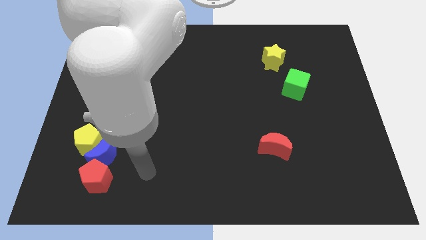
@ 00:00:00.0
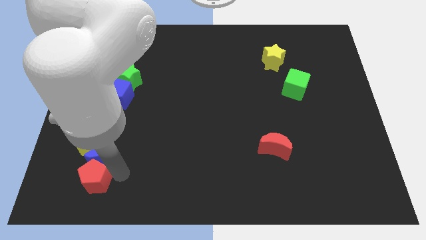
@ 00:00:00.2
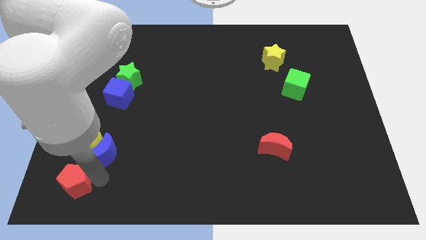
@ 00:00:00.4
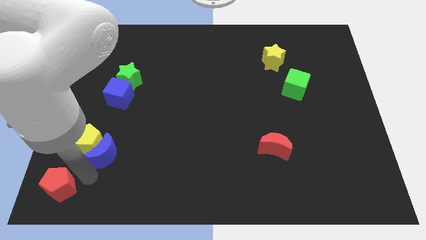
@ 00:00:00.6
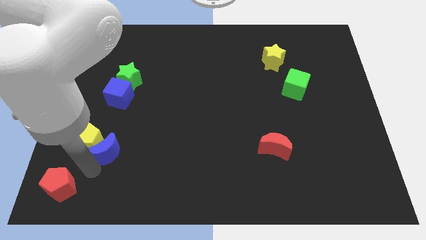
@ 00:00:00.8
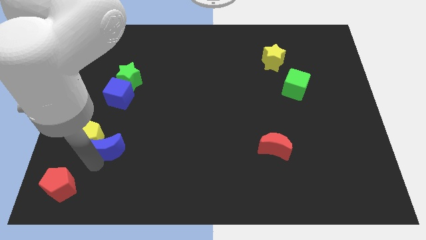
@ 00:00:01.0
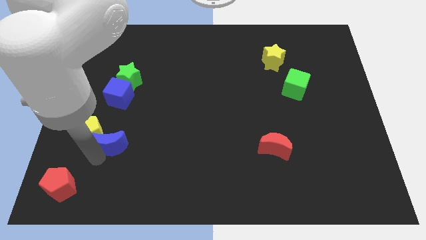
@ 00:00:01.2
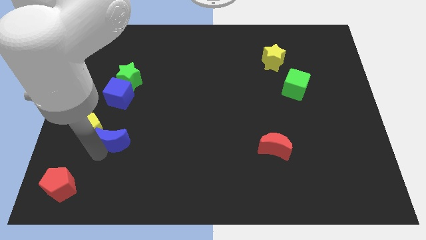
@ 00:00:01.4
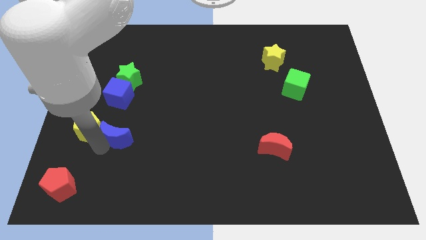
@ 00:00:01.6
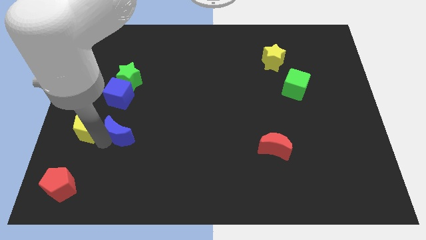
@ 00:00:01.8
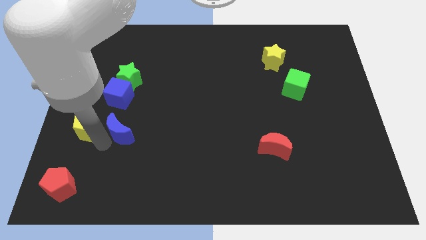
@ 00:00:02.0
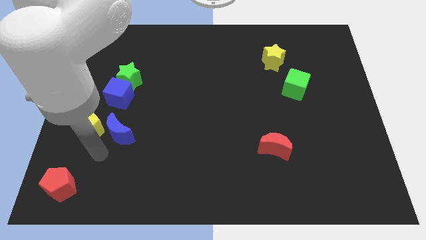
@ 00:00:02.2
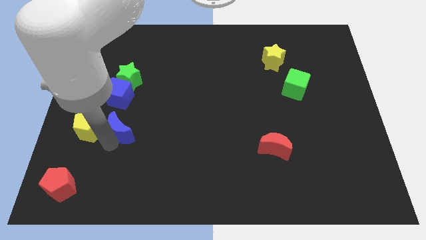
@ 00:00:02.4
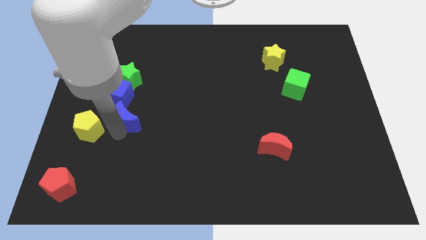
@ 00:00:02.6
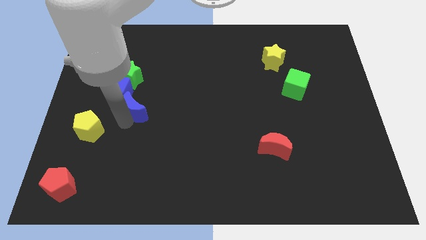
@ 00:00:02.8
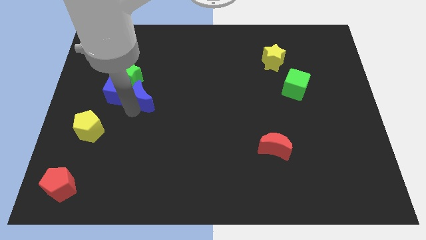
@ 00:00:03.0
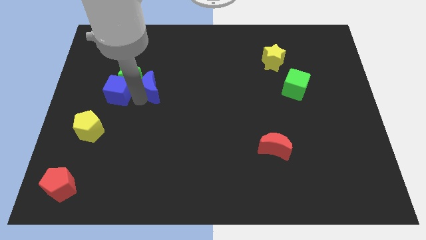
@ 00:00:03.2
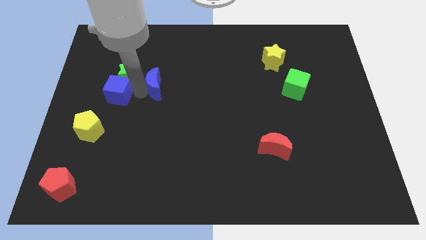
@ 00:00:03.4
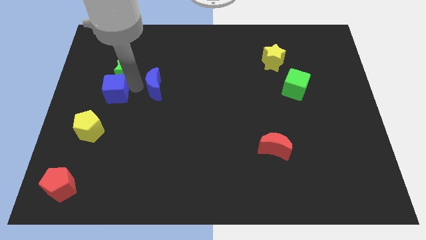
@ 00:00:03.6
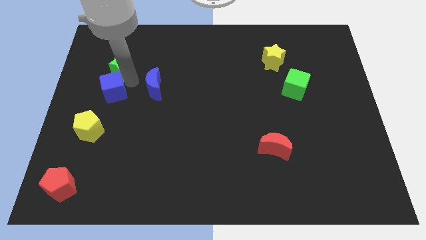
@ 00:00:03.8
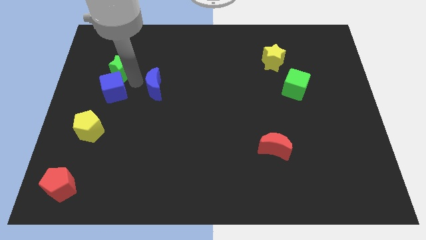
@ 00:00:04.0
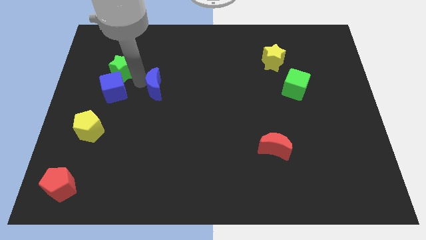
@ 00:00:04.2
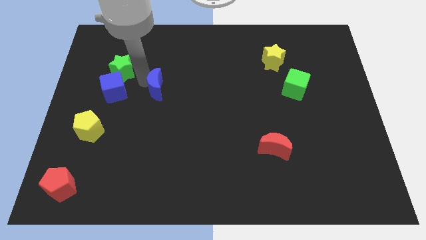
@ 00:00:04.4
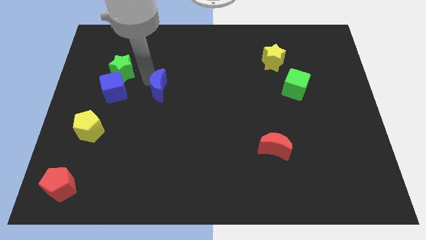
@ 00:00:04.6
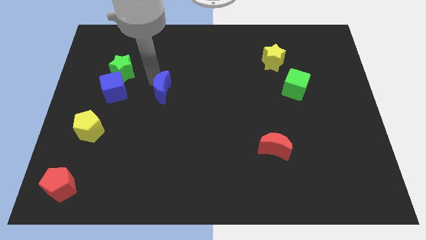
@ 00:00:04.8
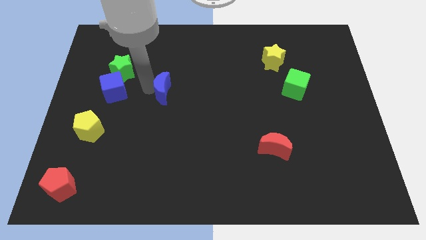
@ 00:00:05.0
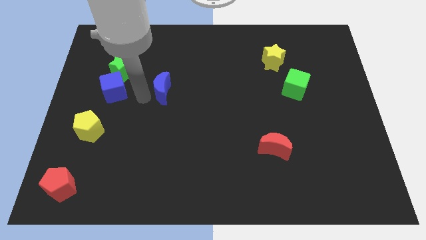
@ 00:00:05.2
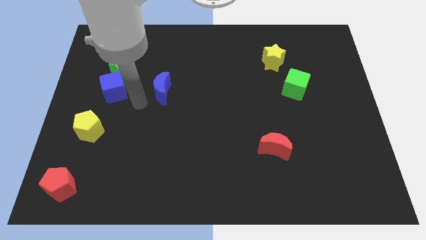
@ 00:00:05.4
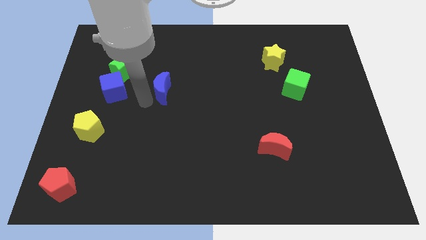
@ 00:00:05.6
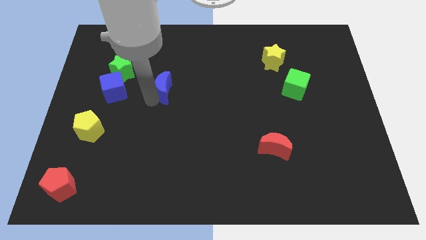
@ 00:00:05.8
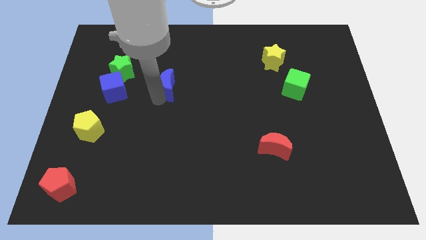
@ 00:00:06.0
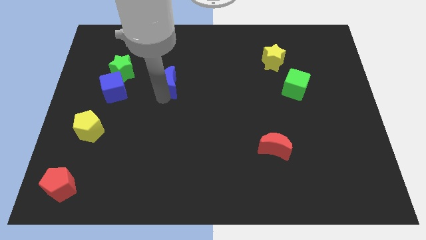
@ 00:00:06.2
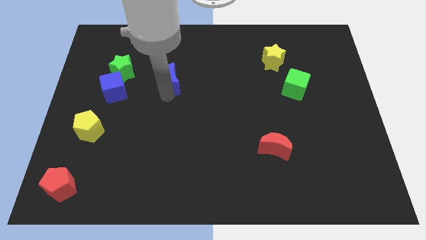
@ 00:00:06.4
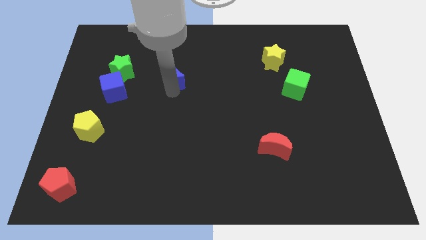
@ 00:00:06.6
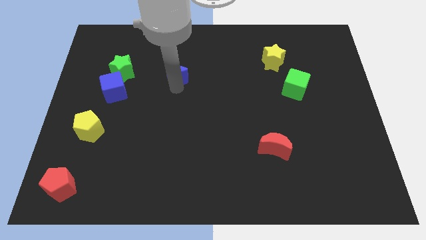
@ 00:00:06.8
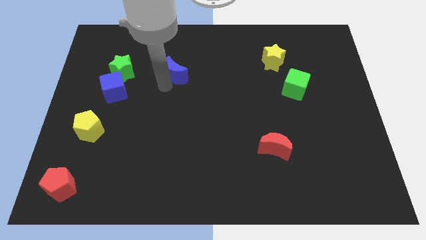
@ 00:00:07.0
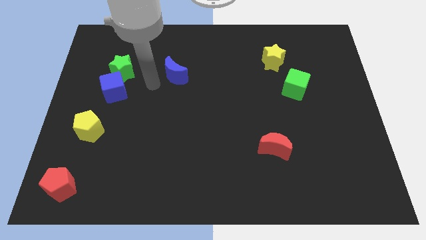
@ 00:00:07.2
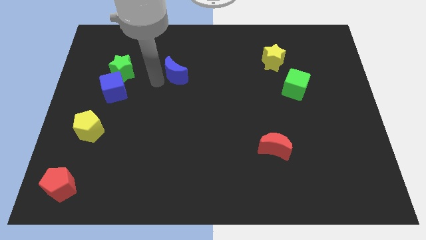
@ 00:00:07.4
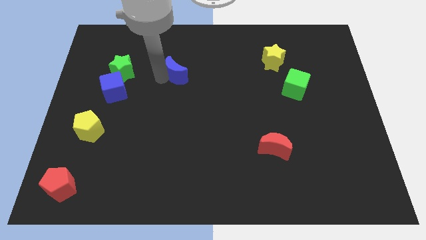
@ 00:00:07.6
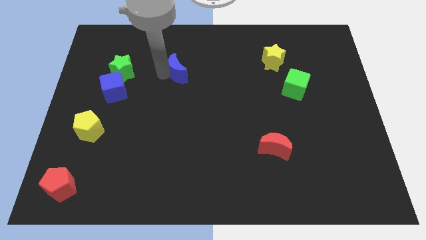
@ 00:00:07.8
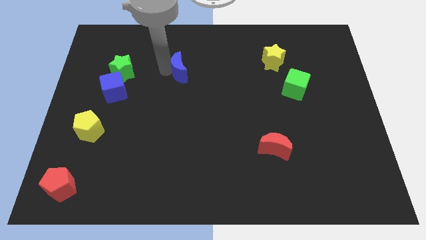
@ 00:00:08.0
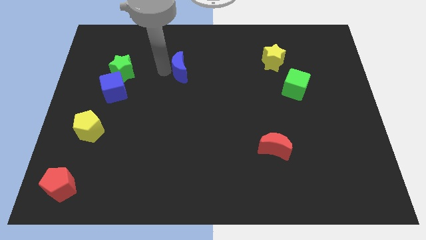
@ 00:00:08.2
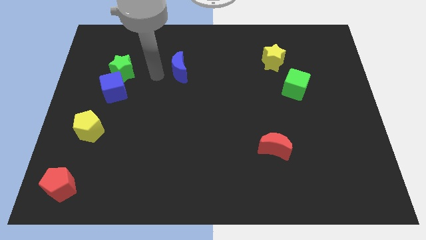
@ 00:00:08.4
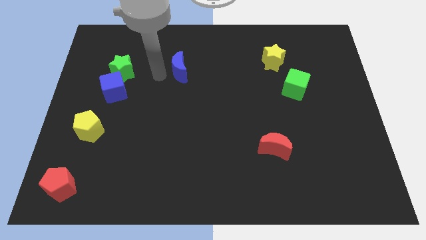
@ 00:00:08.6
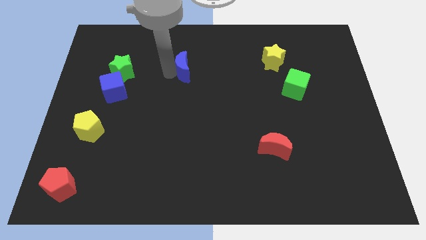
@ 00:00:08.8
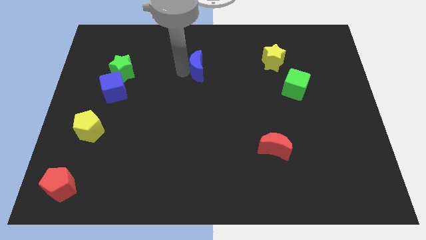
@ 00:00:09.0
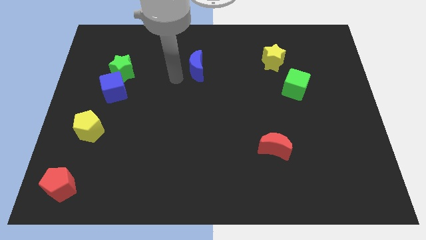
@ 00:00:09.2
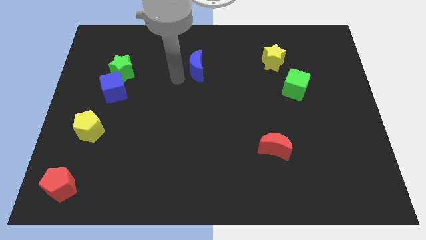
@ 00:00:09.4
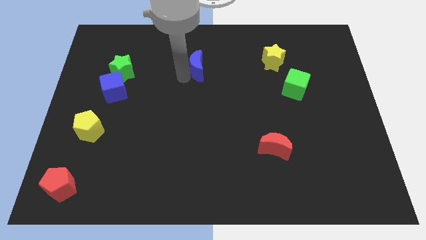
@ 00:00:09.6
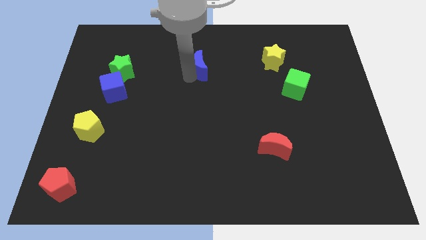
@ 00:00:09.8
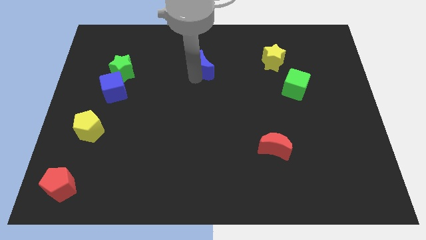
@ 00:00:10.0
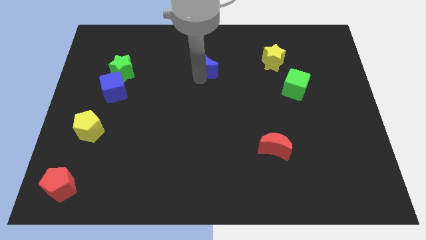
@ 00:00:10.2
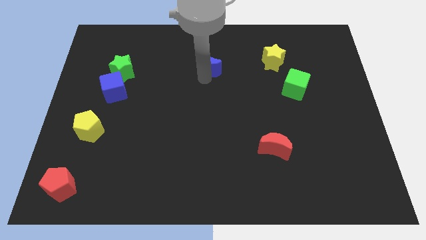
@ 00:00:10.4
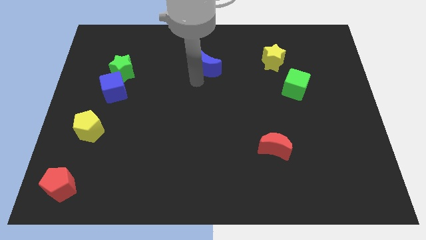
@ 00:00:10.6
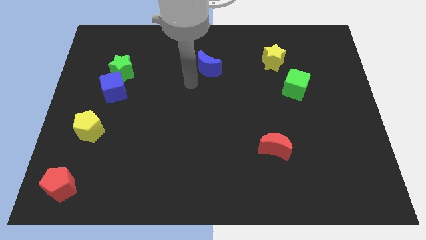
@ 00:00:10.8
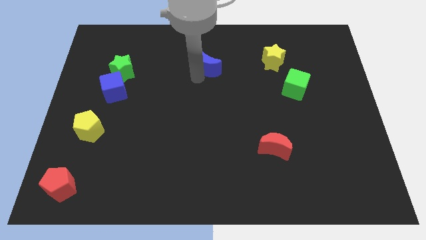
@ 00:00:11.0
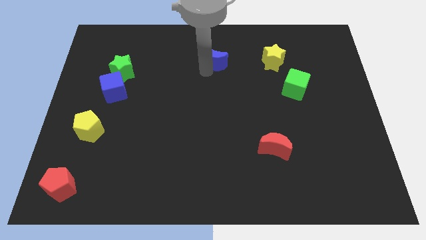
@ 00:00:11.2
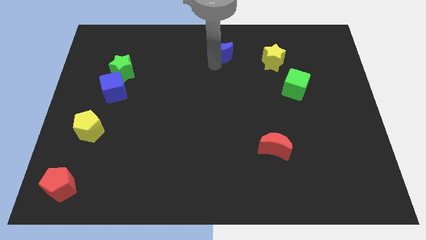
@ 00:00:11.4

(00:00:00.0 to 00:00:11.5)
move the blue moon to the top side
